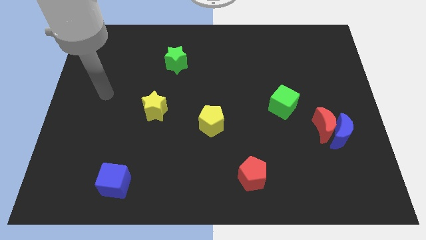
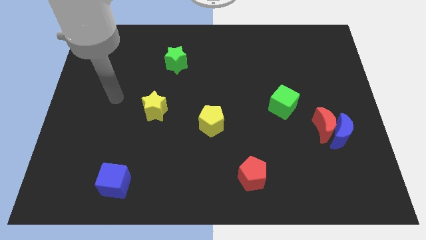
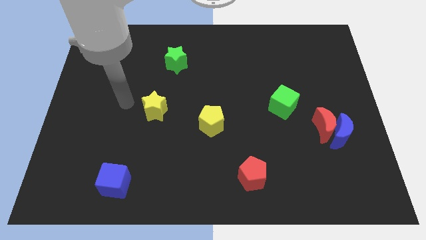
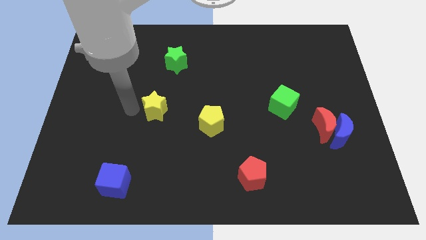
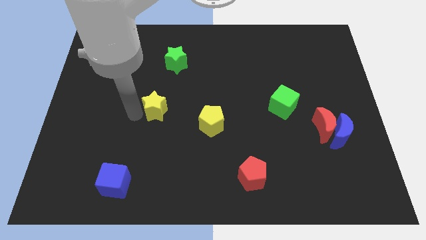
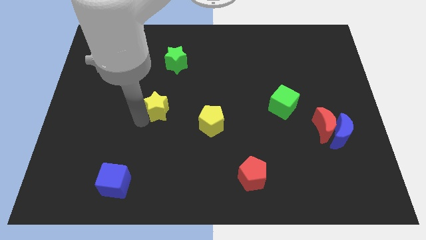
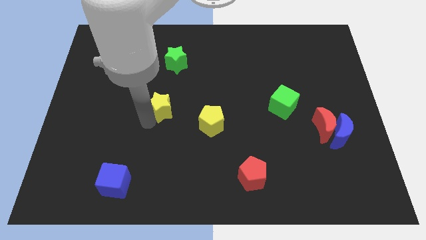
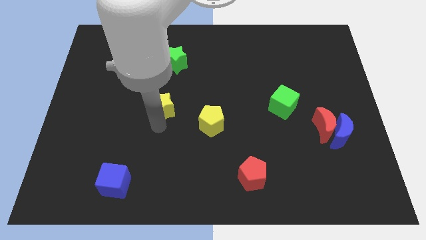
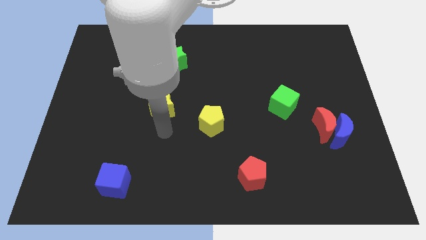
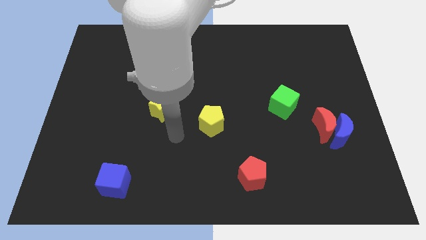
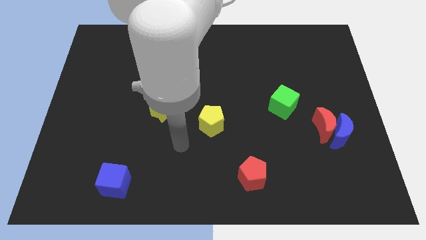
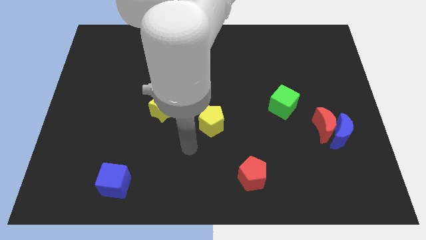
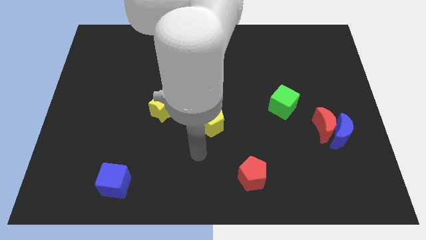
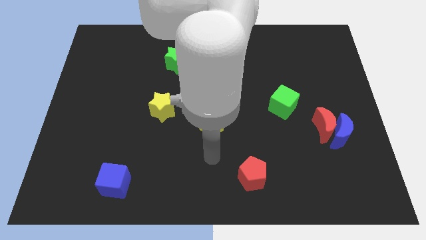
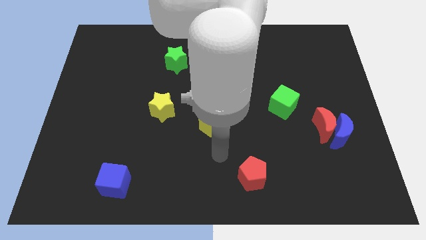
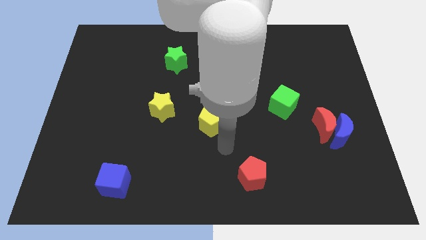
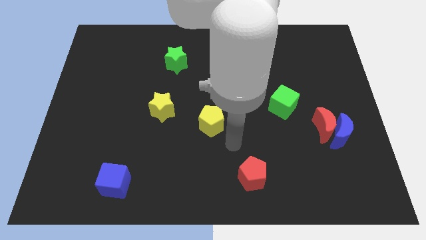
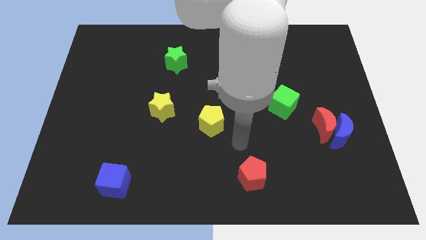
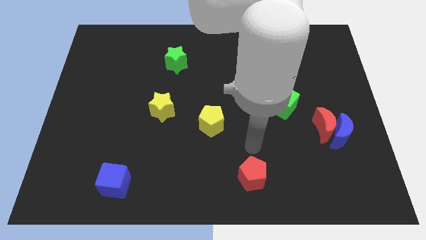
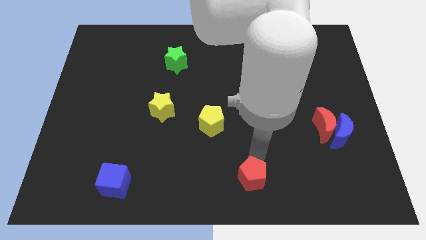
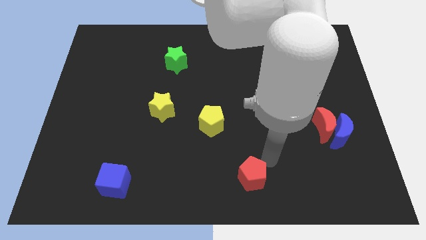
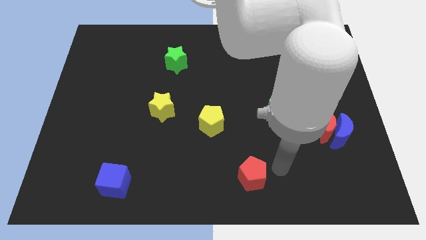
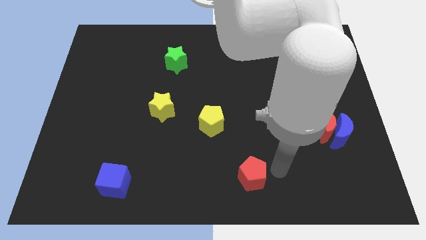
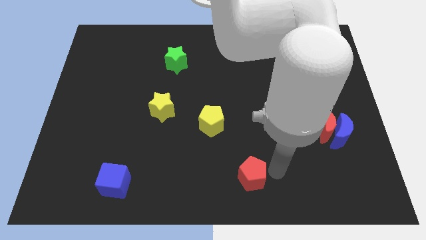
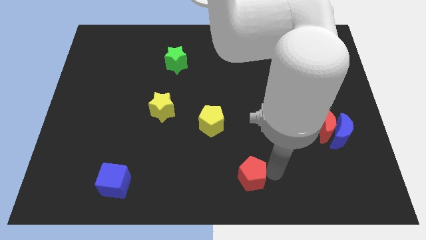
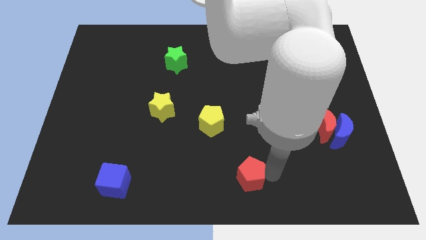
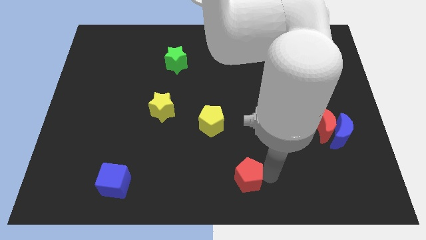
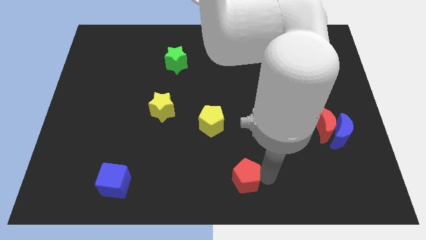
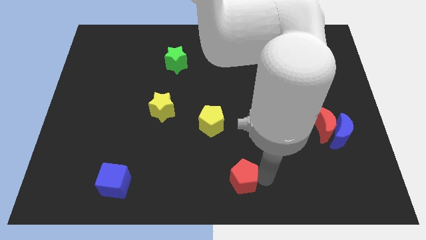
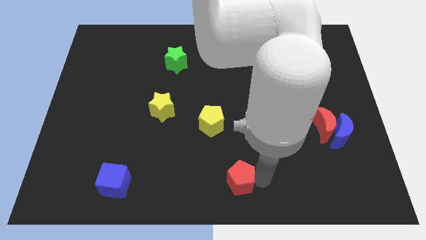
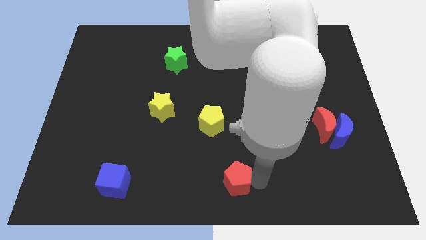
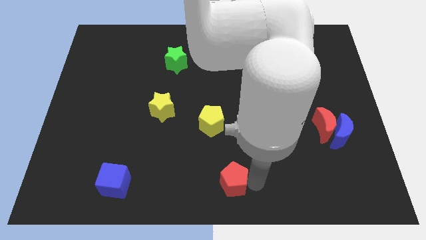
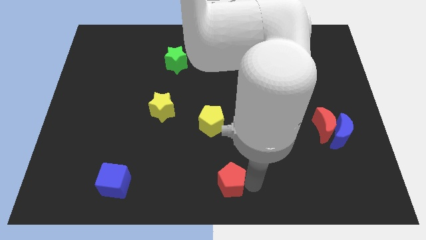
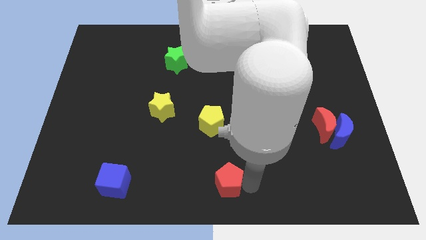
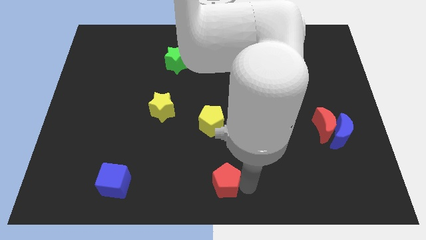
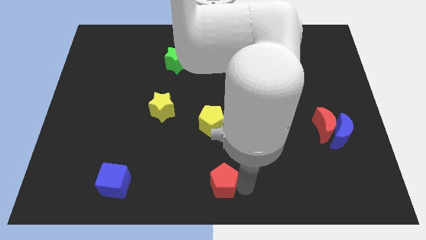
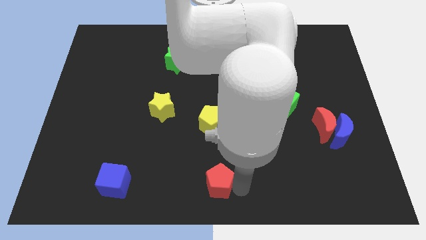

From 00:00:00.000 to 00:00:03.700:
push the red pentagon a little left

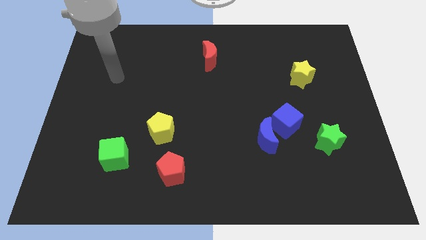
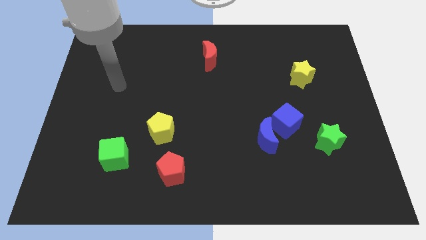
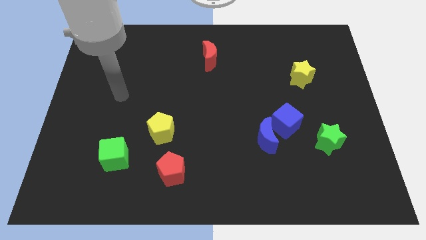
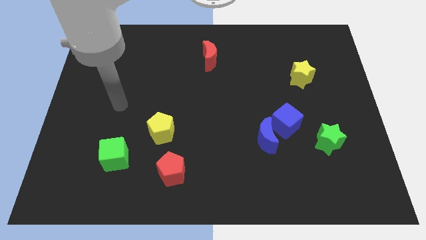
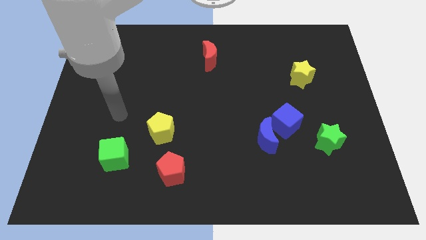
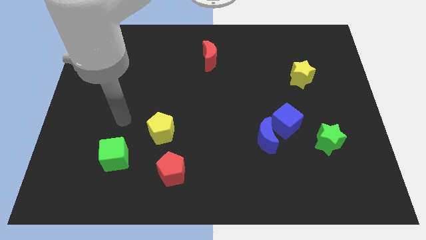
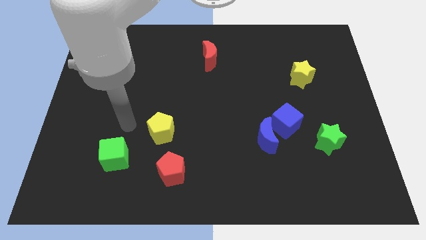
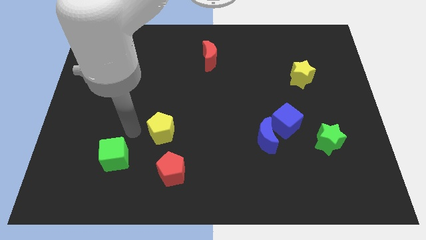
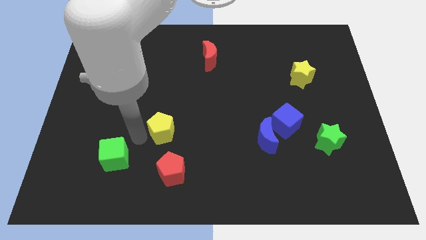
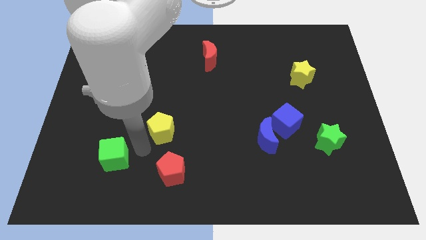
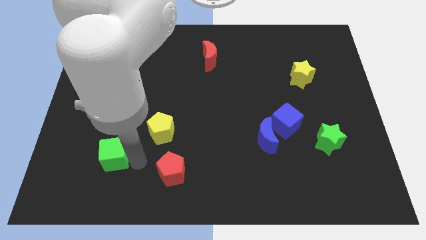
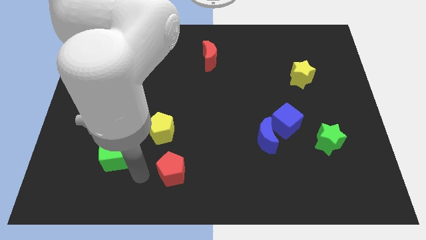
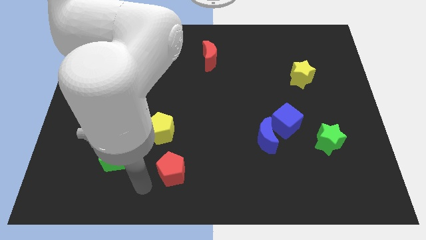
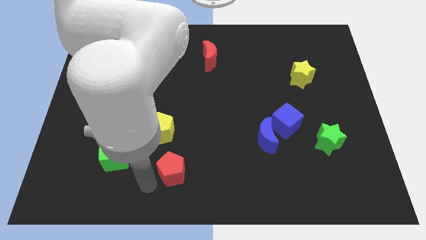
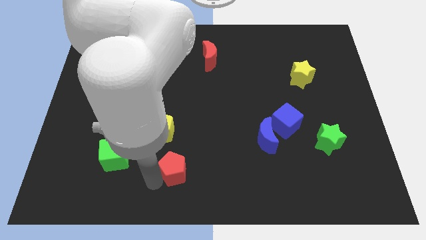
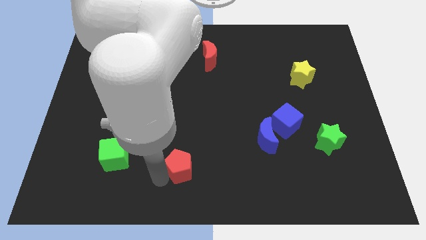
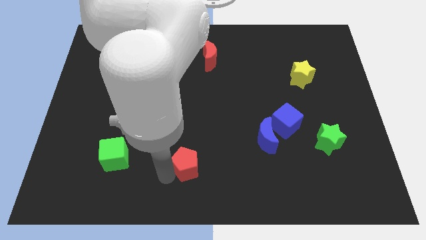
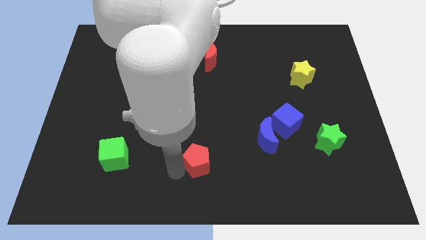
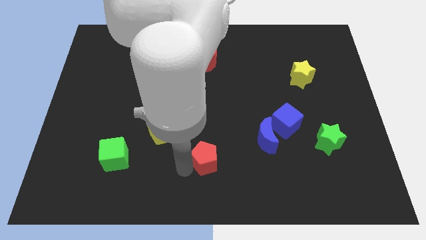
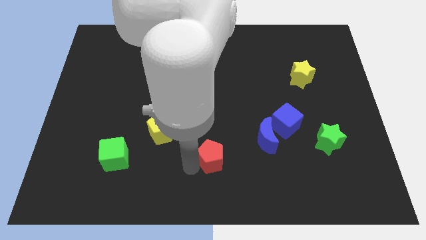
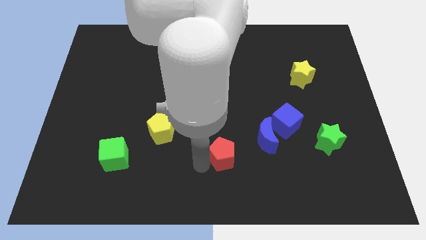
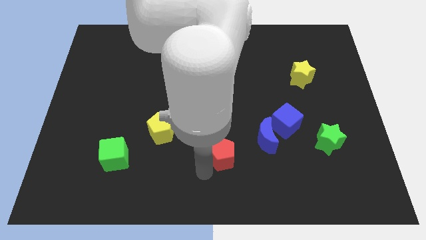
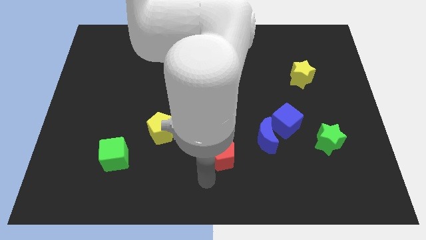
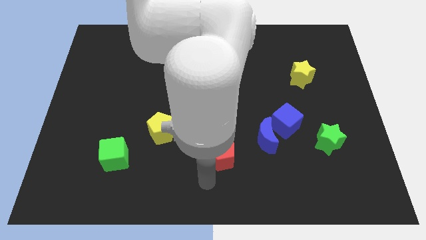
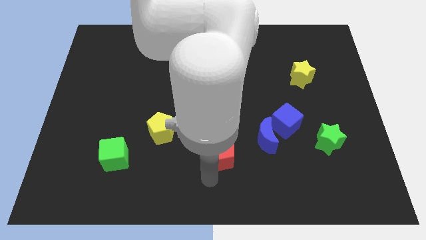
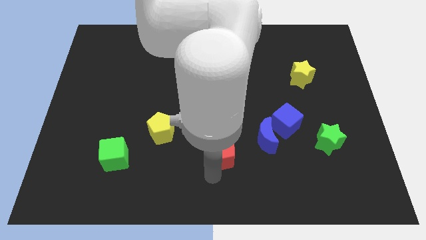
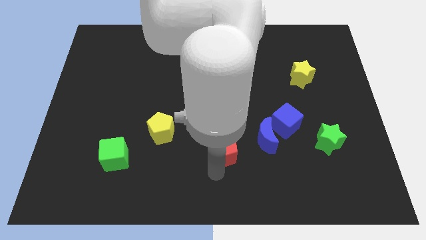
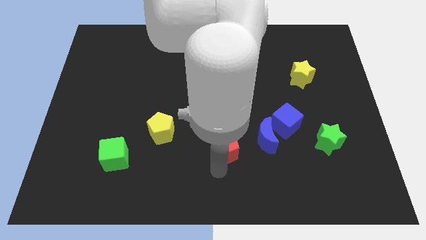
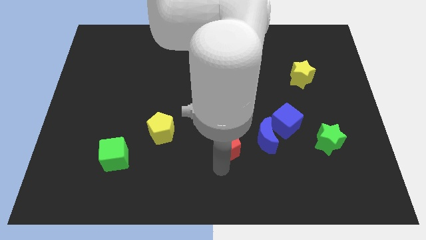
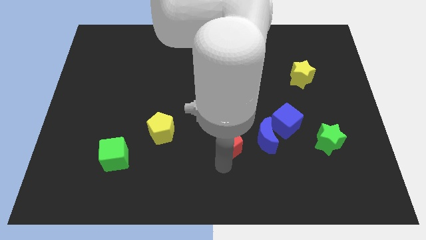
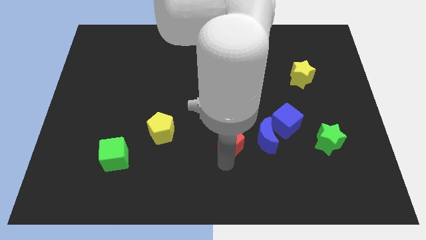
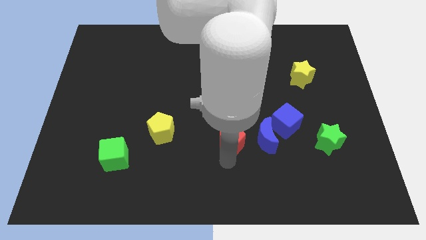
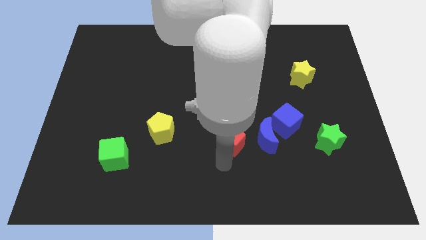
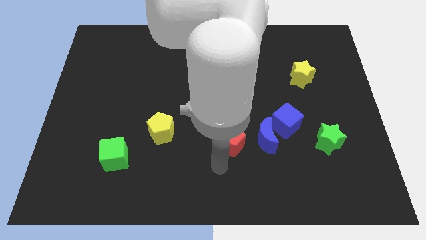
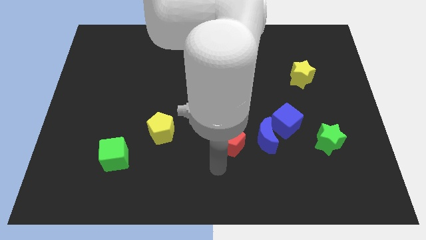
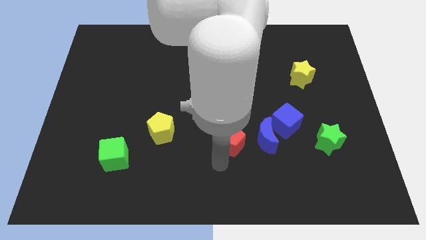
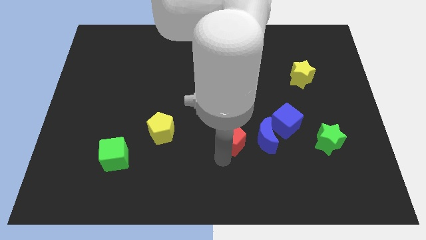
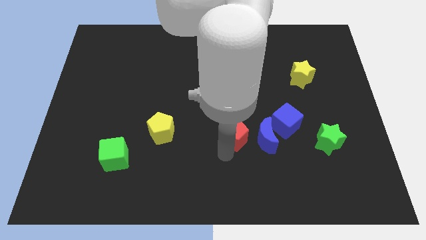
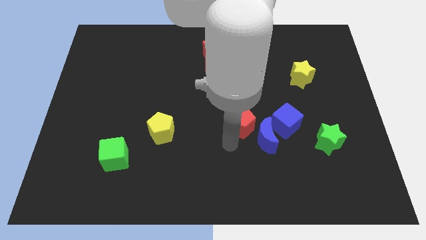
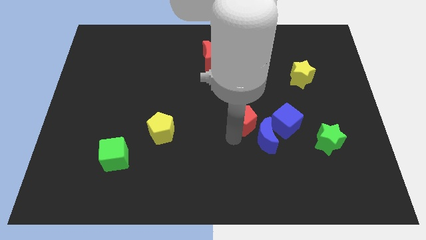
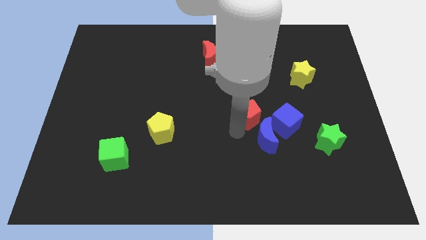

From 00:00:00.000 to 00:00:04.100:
push the red pentagon diagonally up and right
